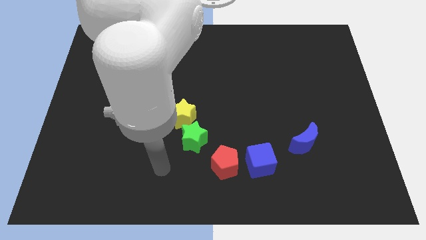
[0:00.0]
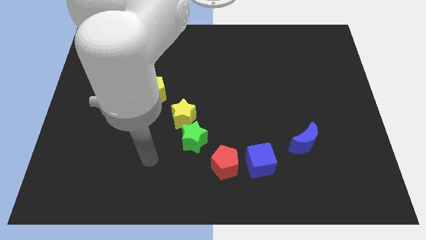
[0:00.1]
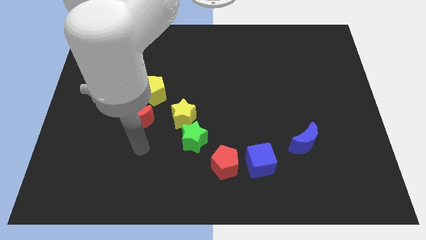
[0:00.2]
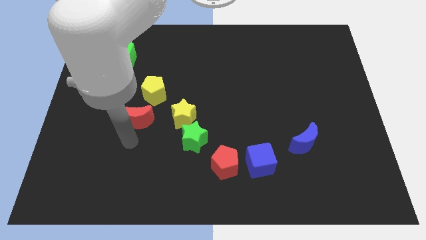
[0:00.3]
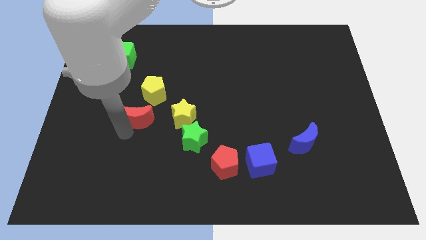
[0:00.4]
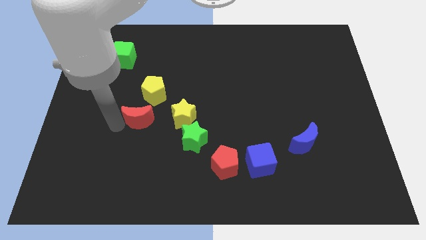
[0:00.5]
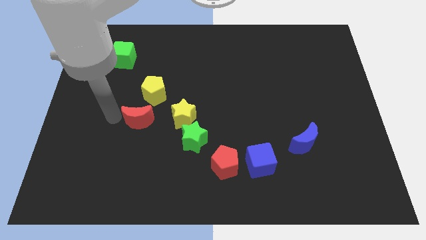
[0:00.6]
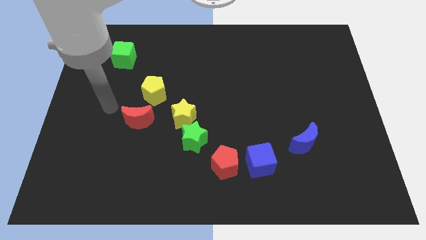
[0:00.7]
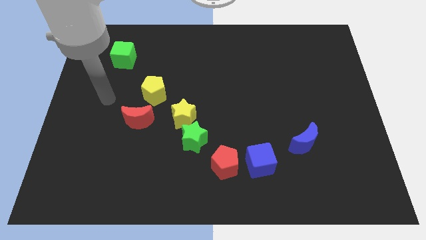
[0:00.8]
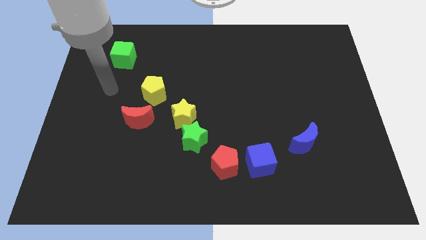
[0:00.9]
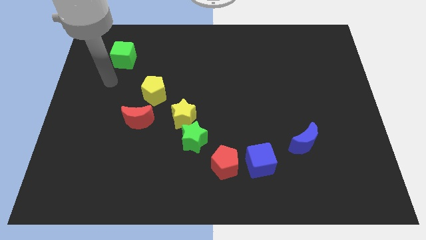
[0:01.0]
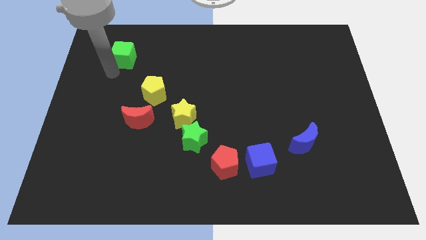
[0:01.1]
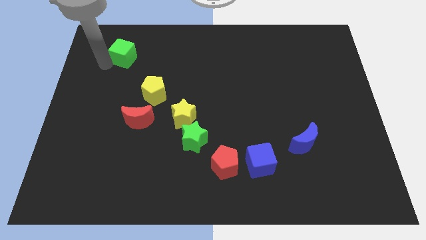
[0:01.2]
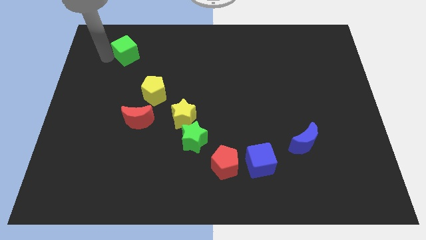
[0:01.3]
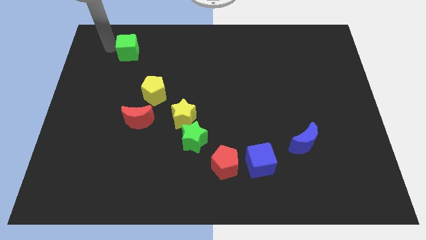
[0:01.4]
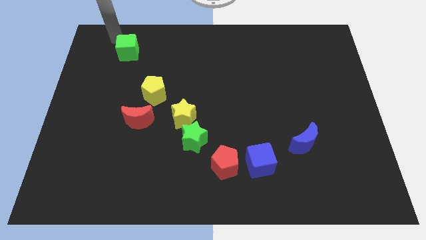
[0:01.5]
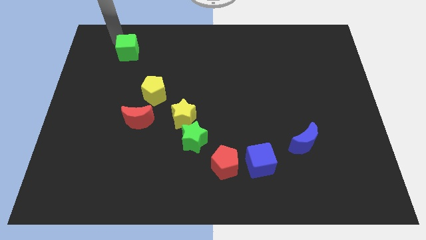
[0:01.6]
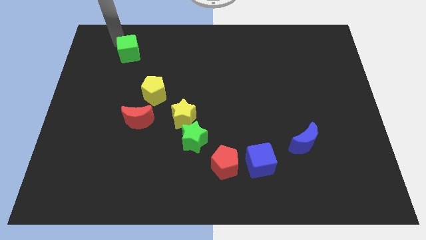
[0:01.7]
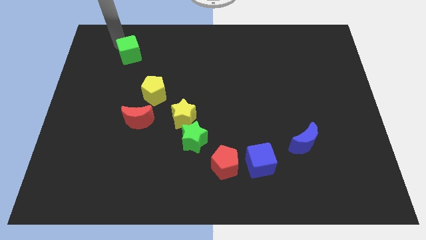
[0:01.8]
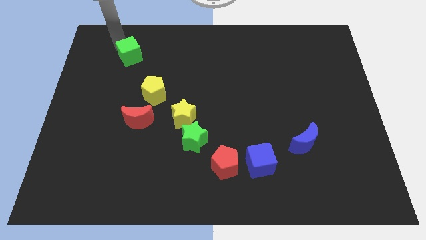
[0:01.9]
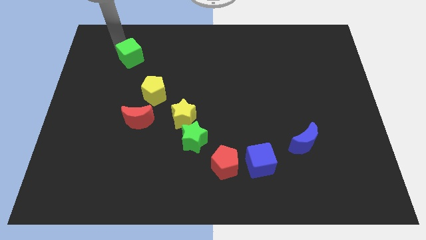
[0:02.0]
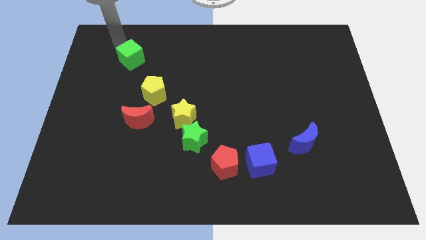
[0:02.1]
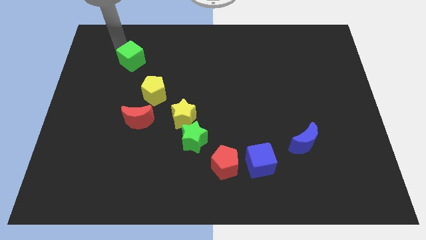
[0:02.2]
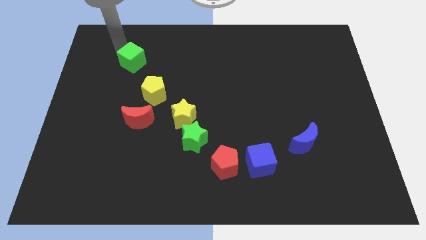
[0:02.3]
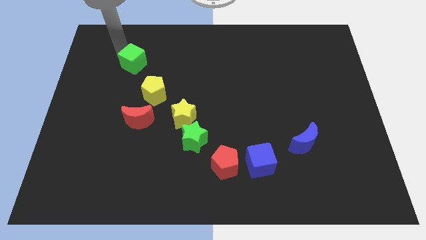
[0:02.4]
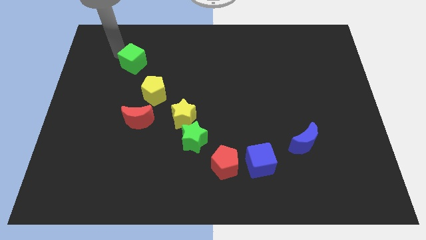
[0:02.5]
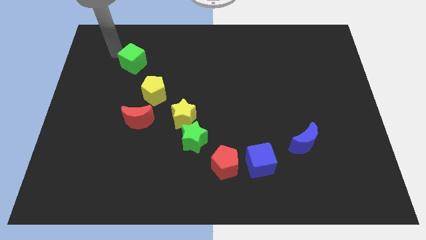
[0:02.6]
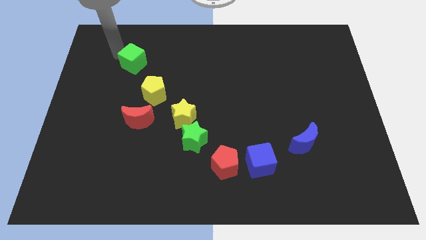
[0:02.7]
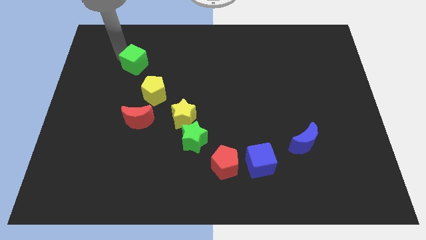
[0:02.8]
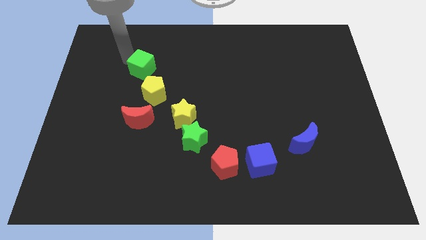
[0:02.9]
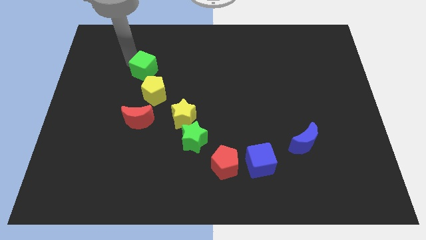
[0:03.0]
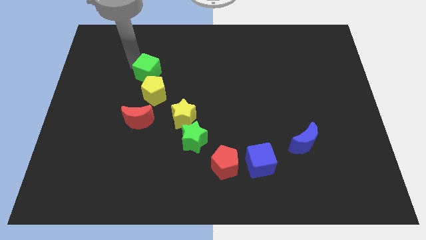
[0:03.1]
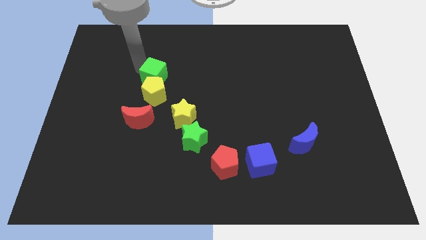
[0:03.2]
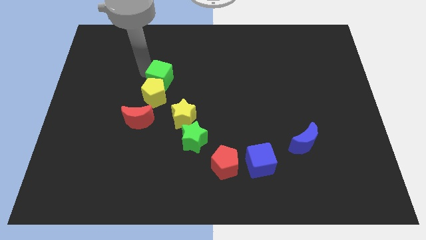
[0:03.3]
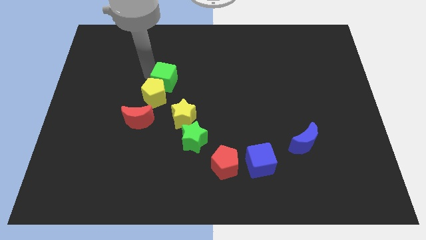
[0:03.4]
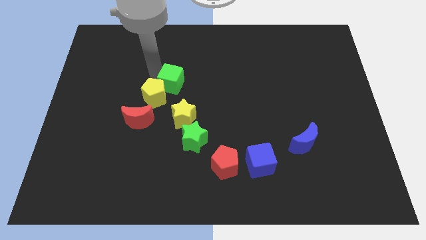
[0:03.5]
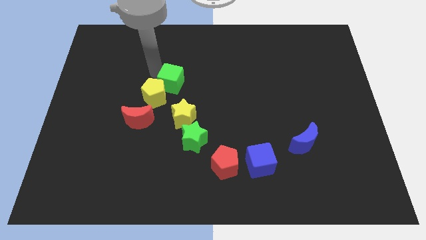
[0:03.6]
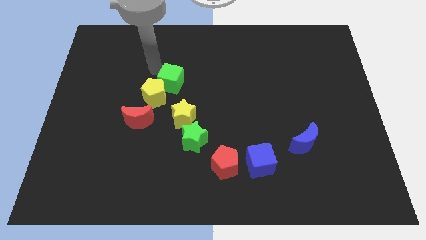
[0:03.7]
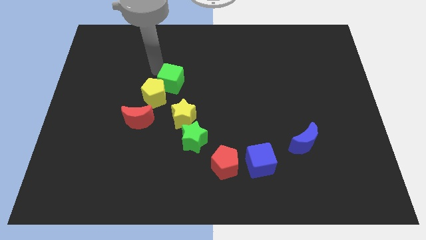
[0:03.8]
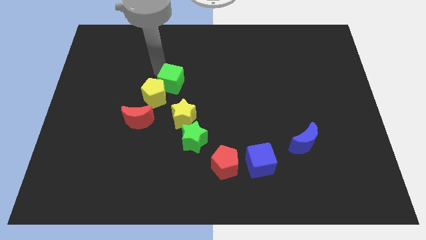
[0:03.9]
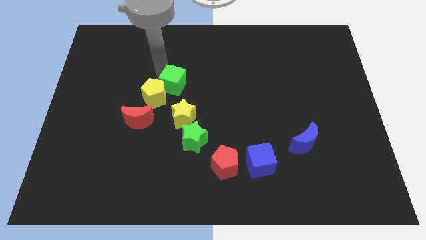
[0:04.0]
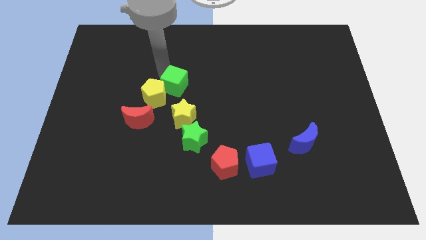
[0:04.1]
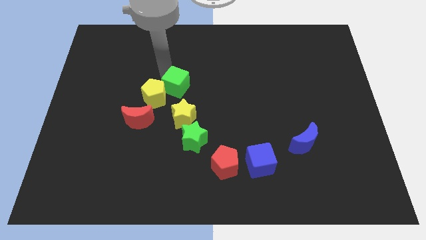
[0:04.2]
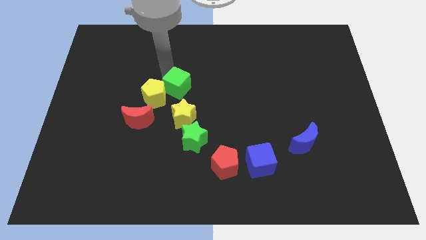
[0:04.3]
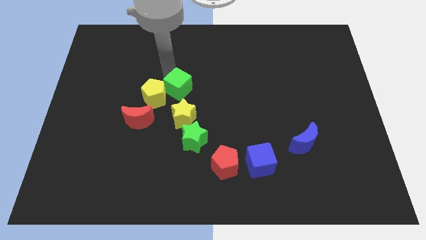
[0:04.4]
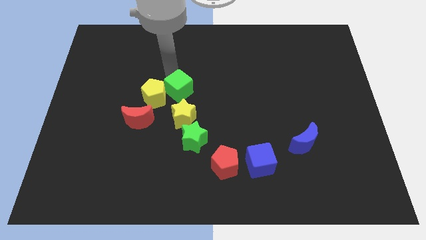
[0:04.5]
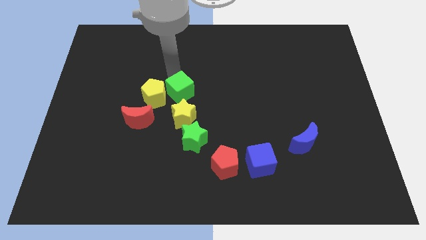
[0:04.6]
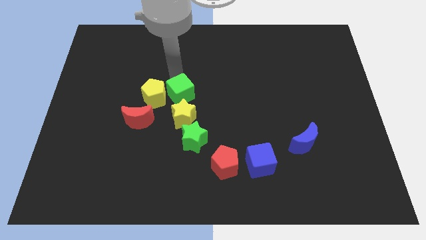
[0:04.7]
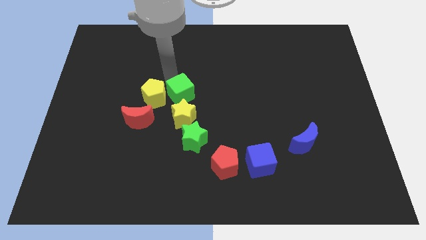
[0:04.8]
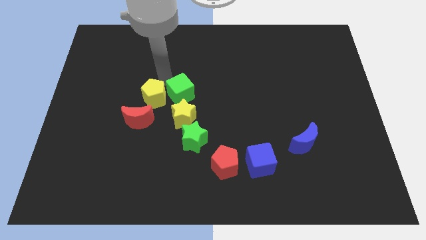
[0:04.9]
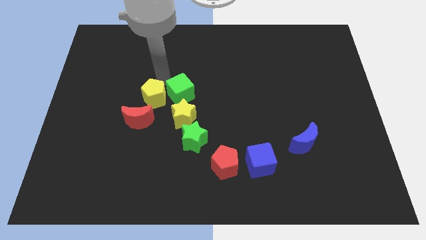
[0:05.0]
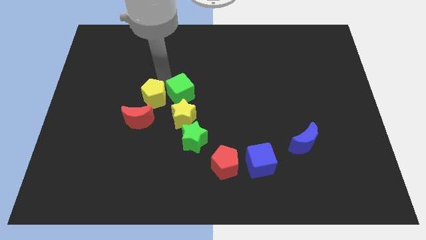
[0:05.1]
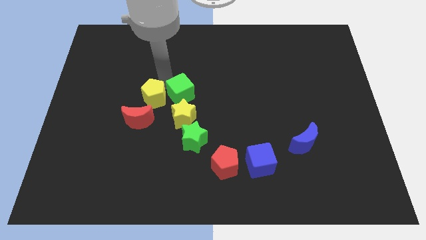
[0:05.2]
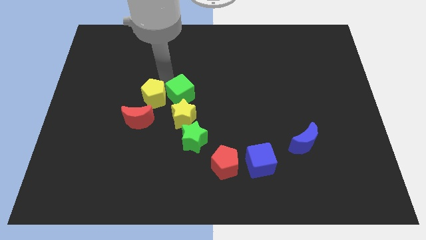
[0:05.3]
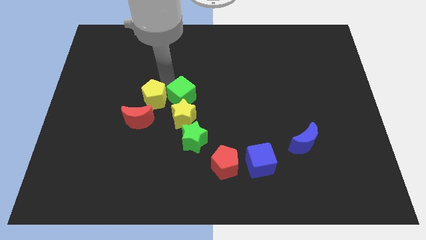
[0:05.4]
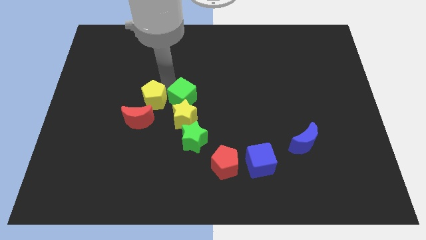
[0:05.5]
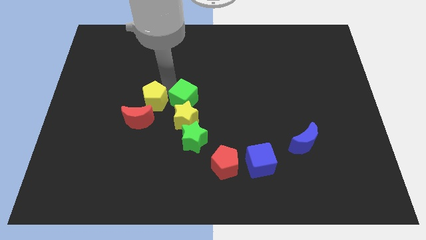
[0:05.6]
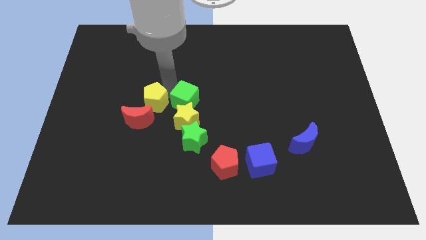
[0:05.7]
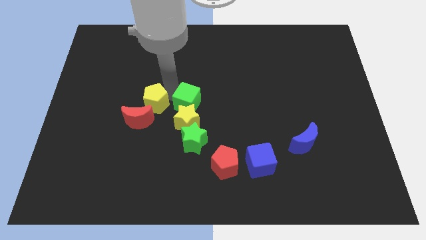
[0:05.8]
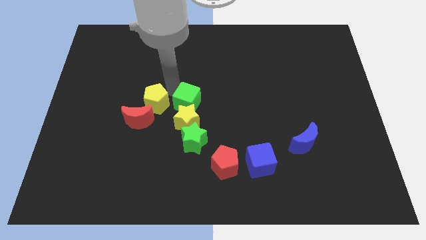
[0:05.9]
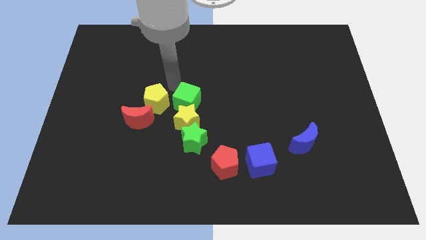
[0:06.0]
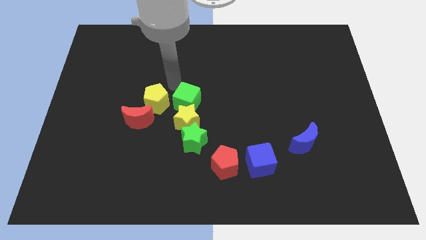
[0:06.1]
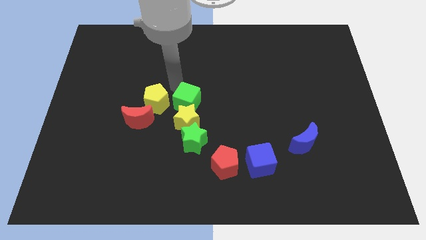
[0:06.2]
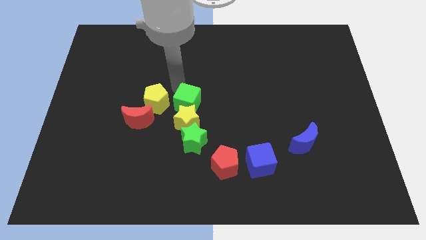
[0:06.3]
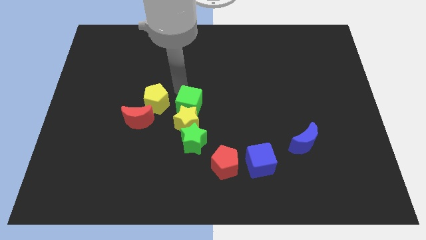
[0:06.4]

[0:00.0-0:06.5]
push the green cube right of the red moon
